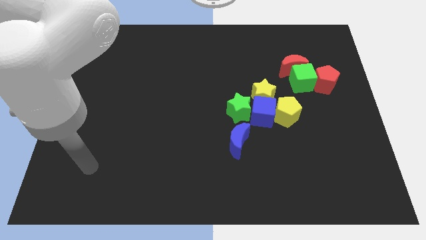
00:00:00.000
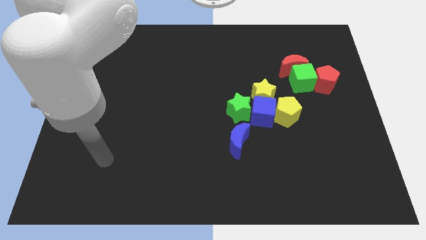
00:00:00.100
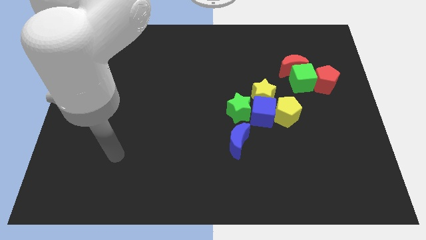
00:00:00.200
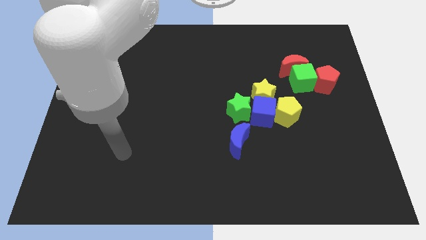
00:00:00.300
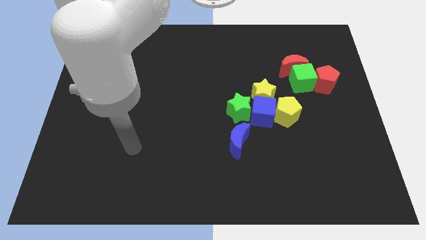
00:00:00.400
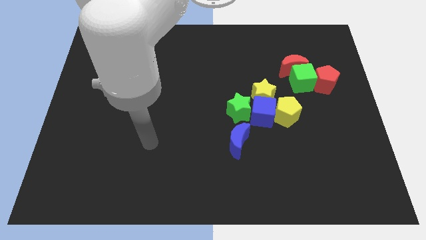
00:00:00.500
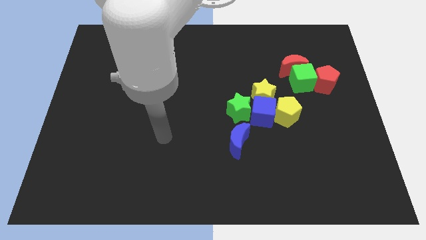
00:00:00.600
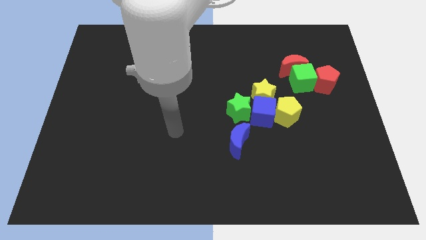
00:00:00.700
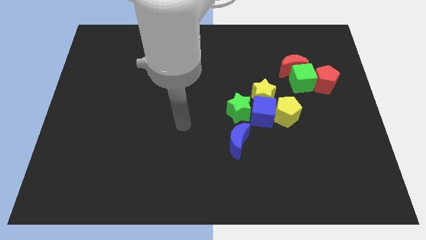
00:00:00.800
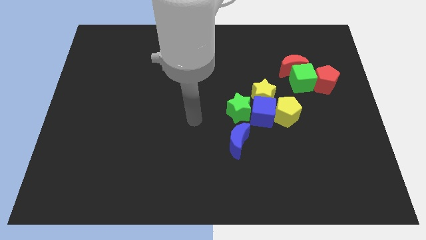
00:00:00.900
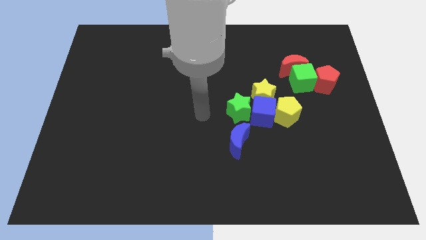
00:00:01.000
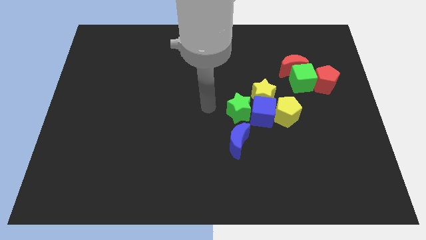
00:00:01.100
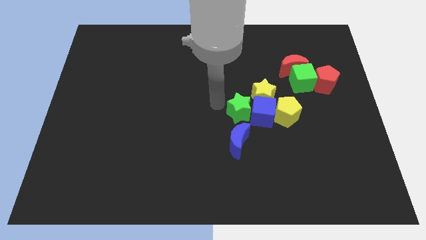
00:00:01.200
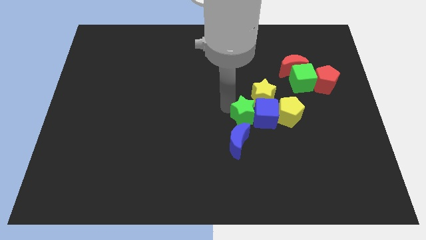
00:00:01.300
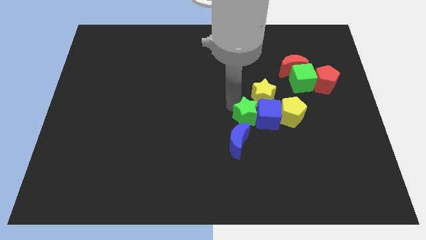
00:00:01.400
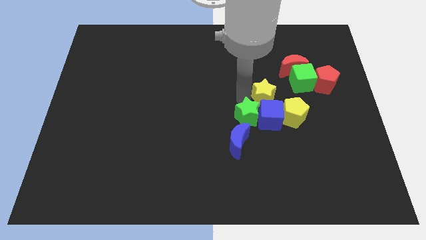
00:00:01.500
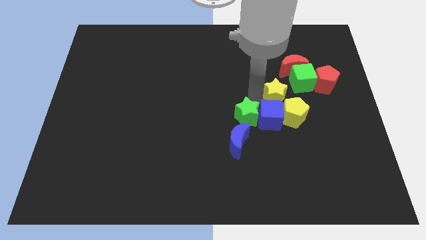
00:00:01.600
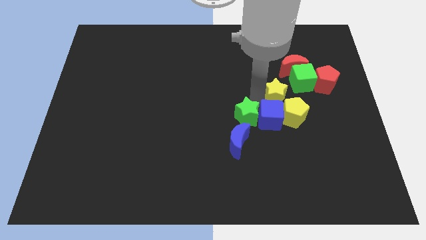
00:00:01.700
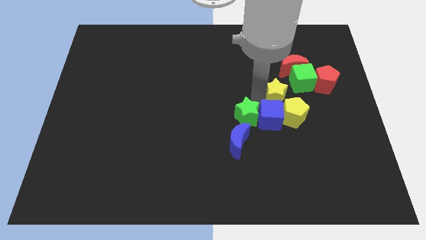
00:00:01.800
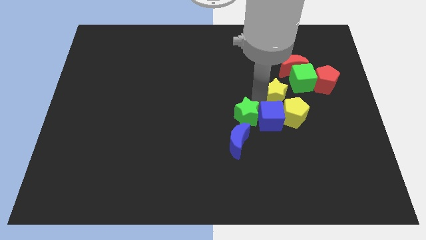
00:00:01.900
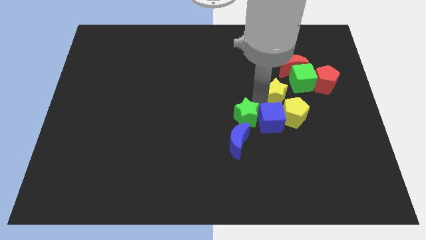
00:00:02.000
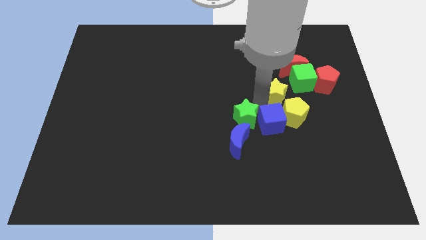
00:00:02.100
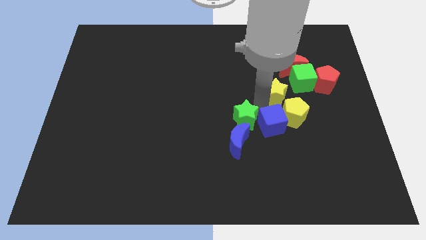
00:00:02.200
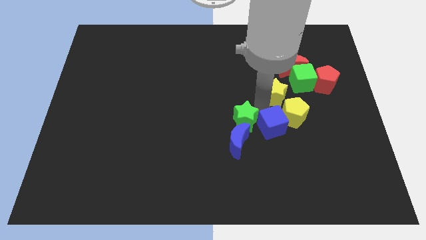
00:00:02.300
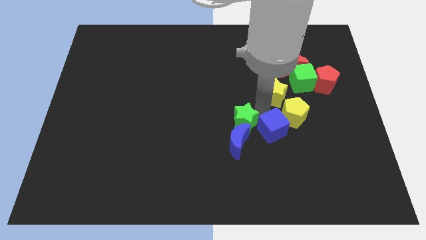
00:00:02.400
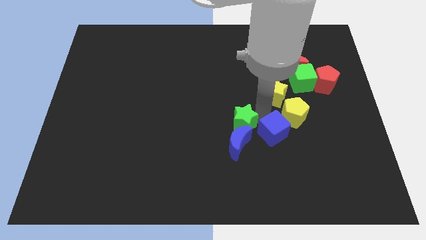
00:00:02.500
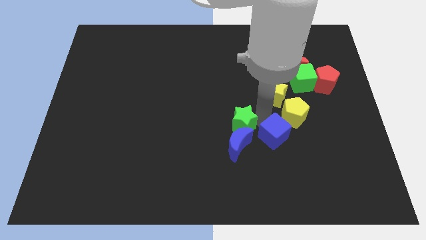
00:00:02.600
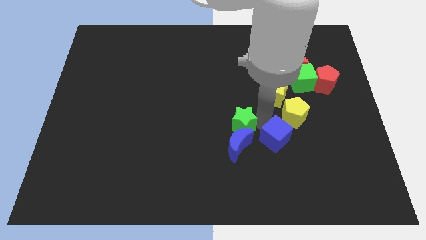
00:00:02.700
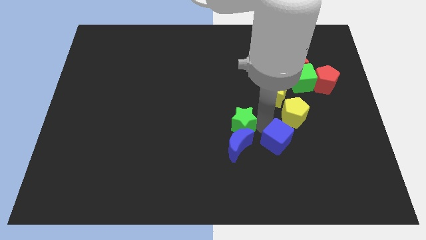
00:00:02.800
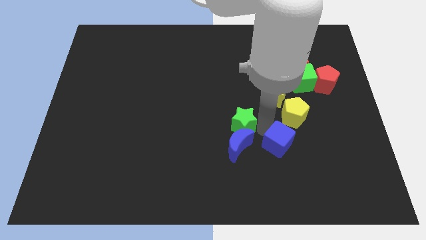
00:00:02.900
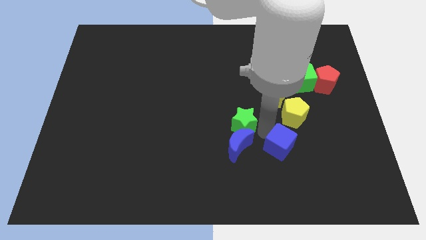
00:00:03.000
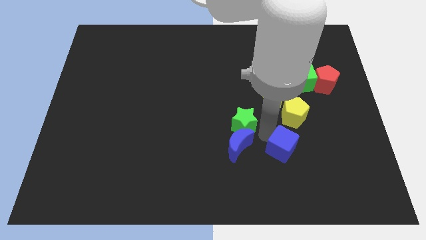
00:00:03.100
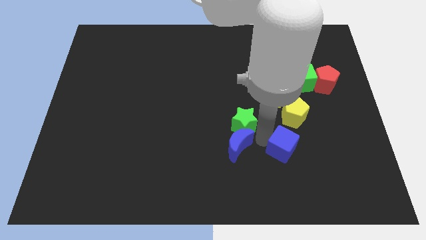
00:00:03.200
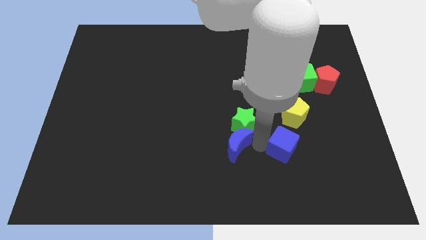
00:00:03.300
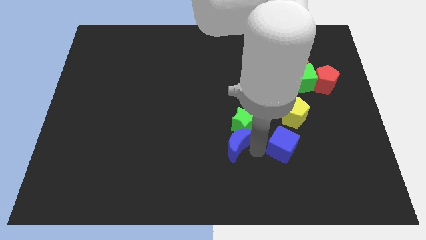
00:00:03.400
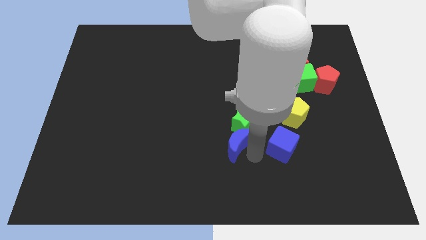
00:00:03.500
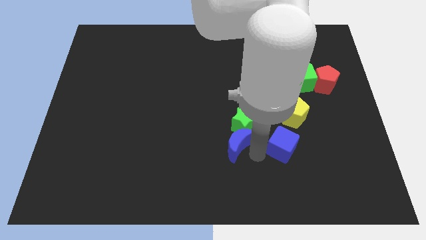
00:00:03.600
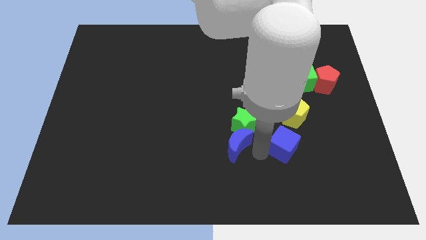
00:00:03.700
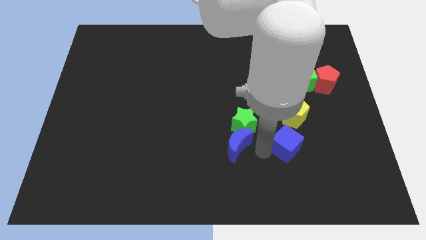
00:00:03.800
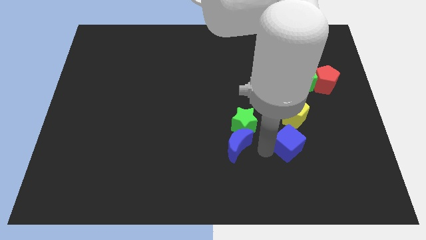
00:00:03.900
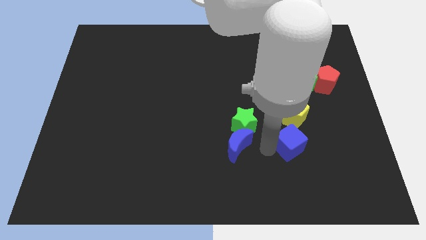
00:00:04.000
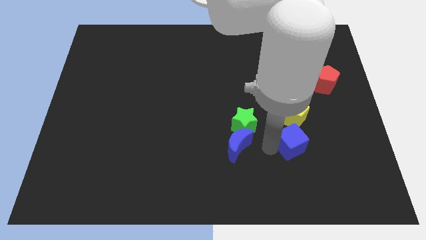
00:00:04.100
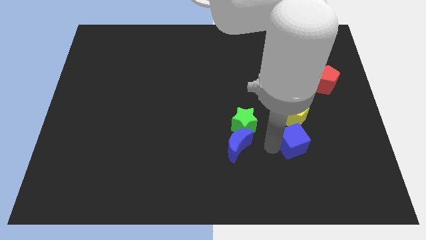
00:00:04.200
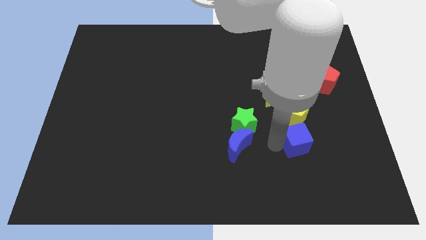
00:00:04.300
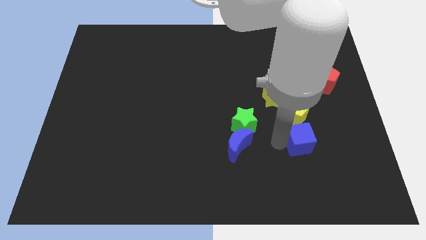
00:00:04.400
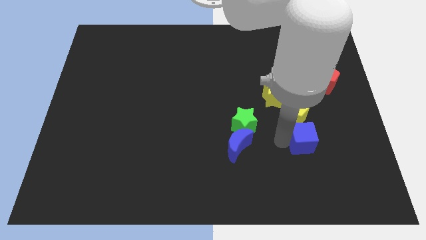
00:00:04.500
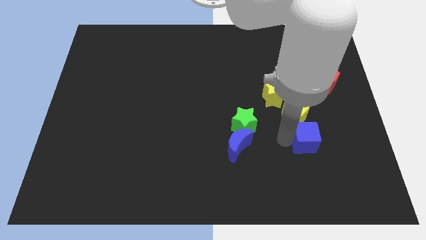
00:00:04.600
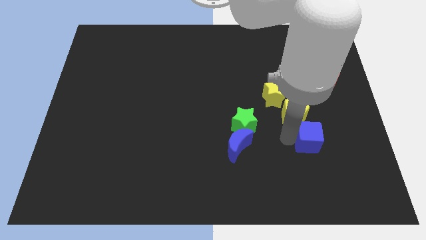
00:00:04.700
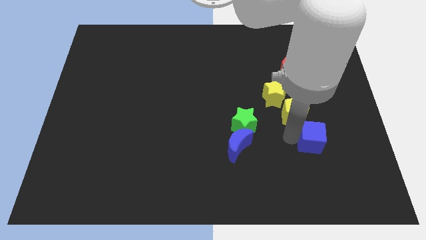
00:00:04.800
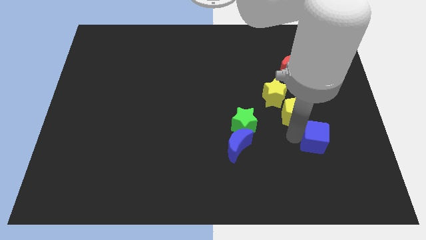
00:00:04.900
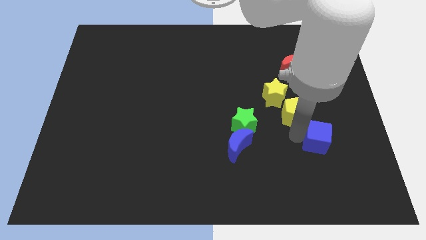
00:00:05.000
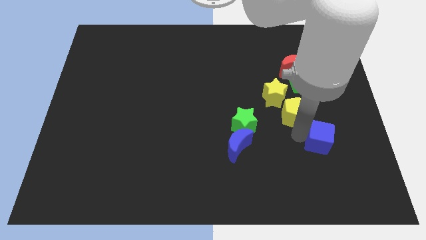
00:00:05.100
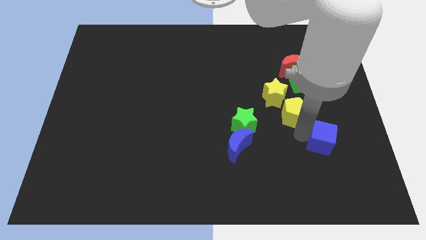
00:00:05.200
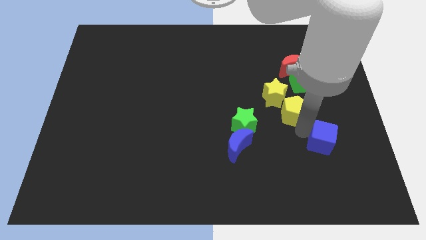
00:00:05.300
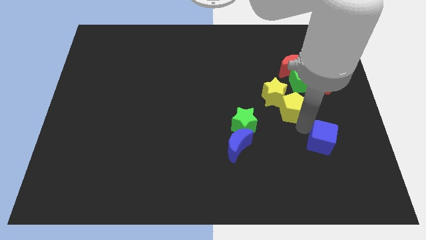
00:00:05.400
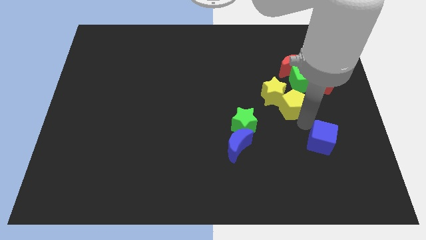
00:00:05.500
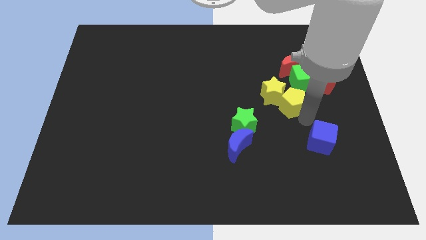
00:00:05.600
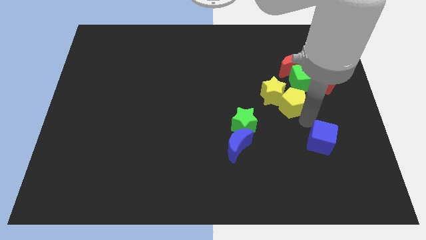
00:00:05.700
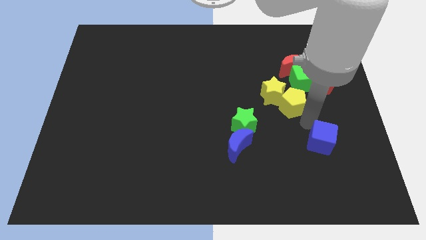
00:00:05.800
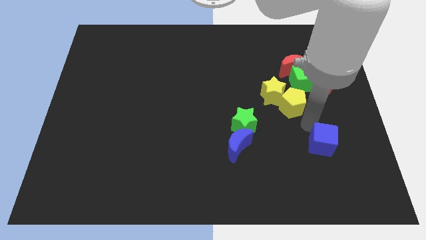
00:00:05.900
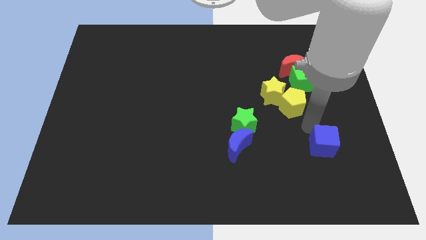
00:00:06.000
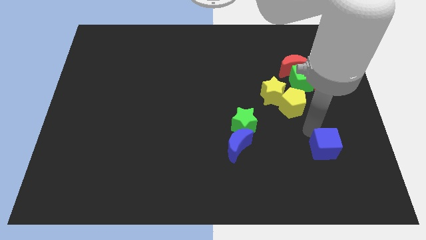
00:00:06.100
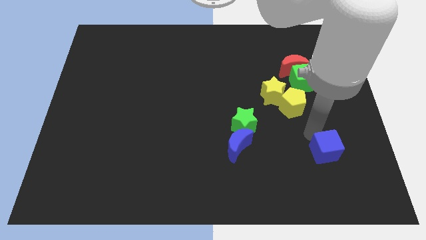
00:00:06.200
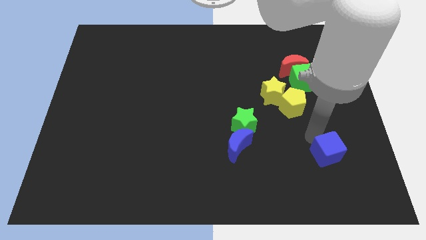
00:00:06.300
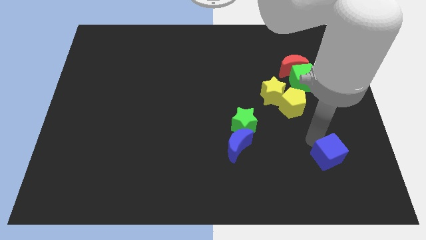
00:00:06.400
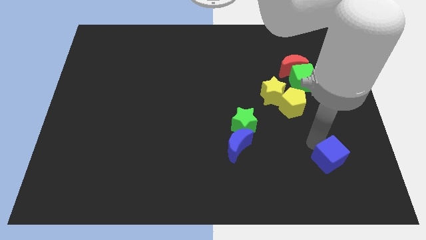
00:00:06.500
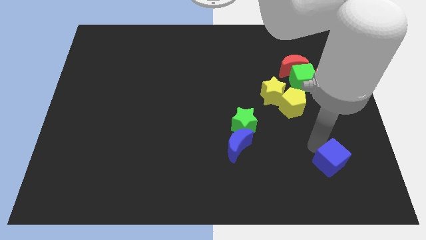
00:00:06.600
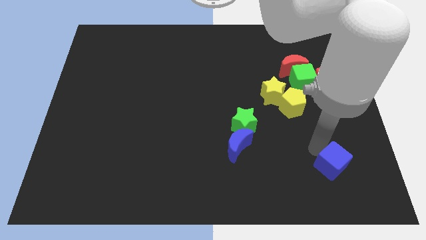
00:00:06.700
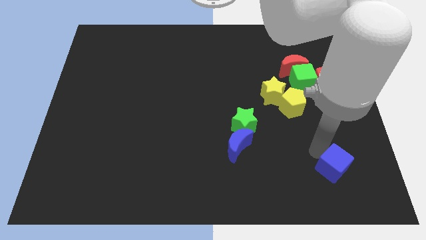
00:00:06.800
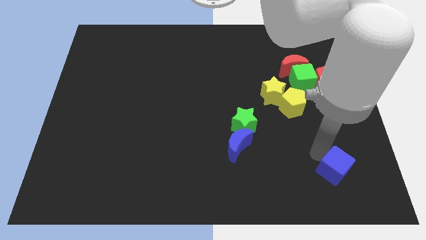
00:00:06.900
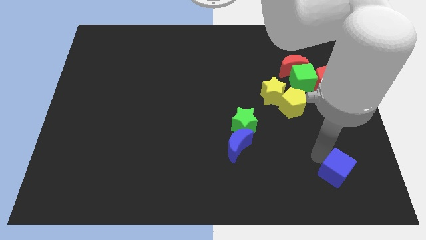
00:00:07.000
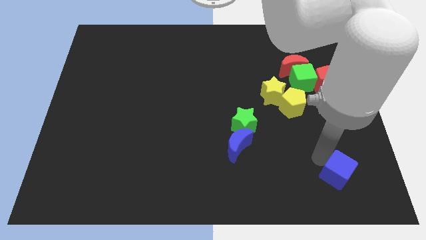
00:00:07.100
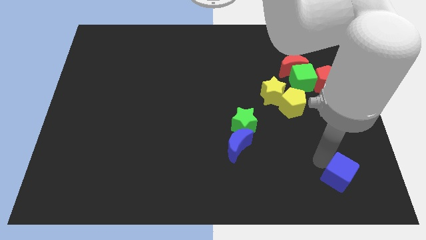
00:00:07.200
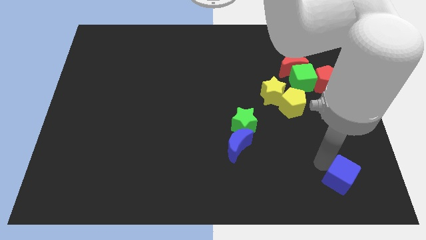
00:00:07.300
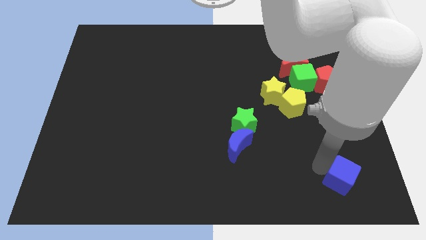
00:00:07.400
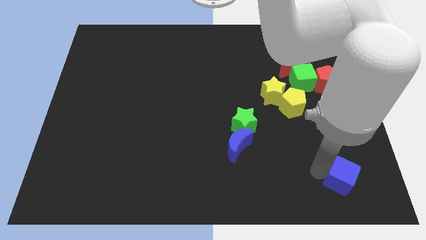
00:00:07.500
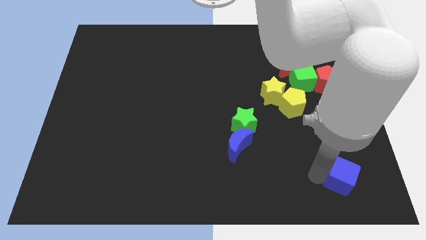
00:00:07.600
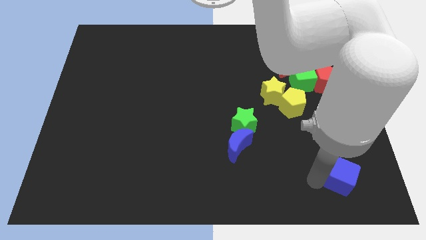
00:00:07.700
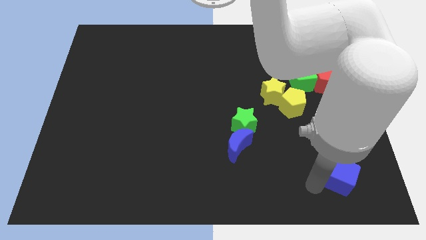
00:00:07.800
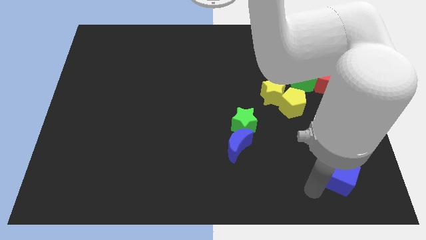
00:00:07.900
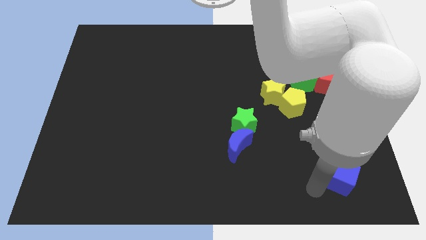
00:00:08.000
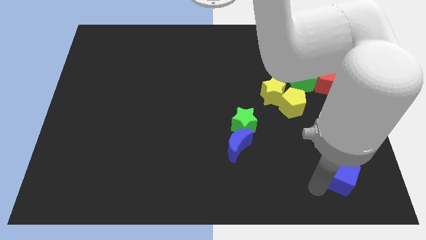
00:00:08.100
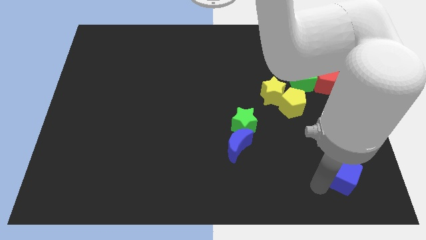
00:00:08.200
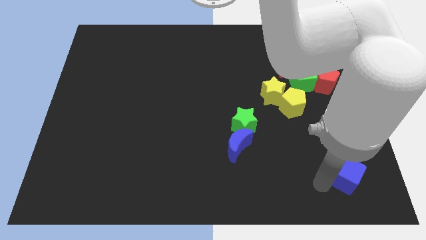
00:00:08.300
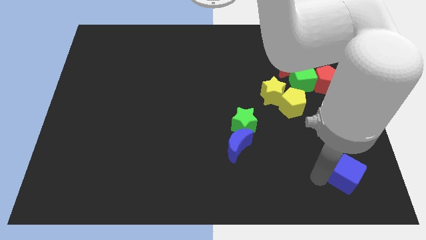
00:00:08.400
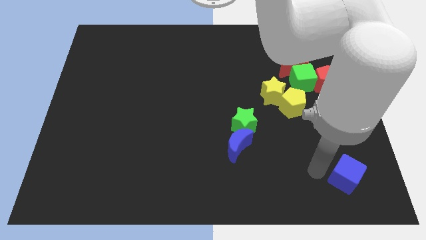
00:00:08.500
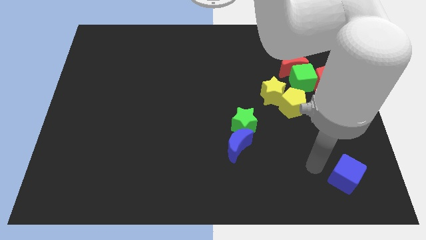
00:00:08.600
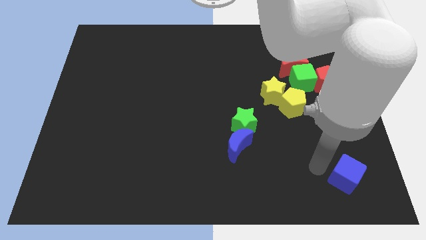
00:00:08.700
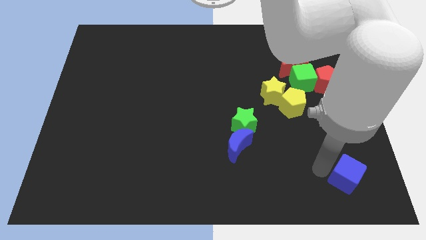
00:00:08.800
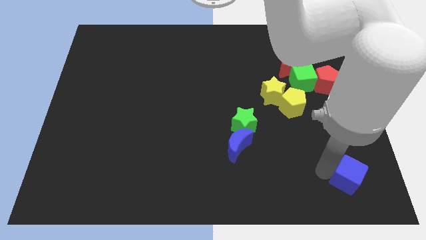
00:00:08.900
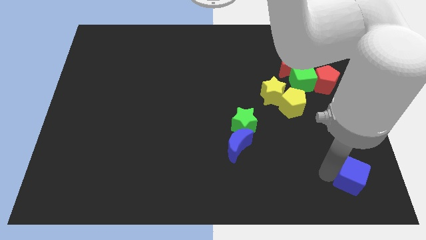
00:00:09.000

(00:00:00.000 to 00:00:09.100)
move the blue cube to the bottom right corner
